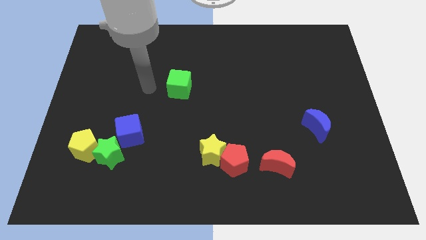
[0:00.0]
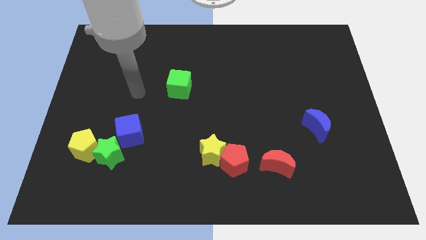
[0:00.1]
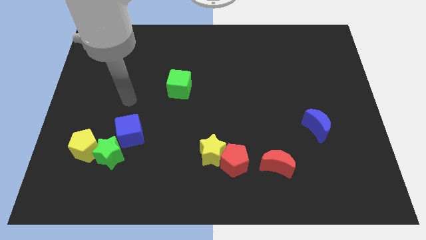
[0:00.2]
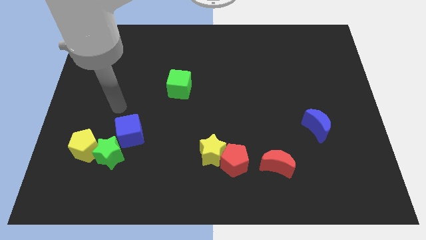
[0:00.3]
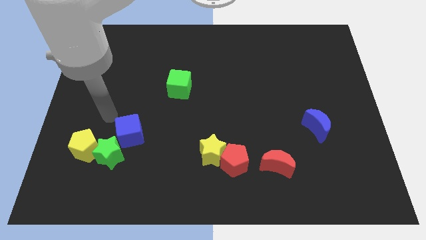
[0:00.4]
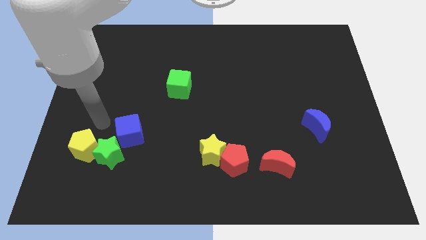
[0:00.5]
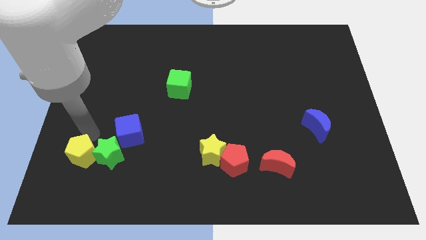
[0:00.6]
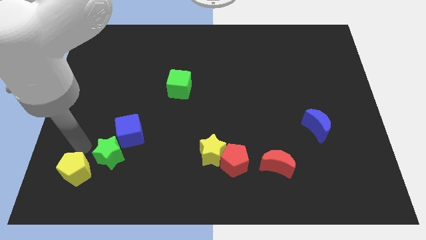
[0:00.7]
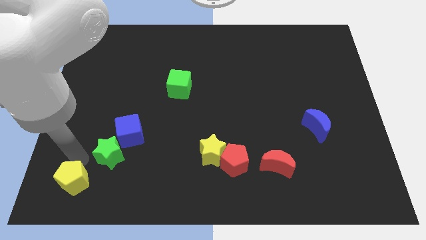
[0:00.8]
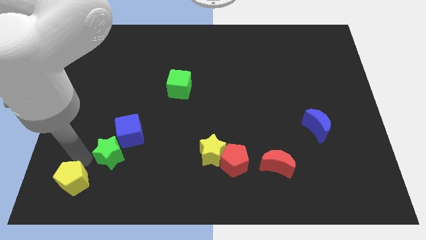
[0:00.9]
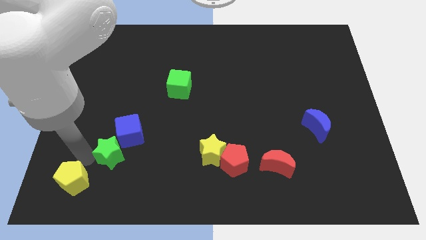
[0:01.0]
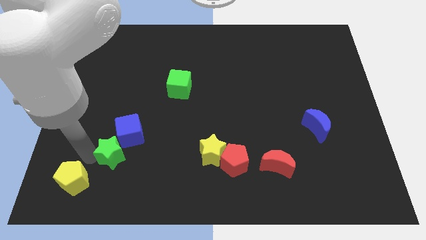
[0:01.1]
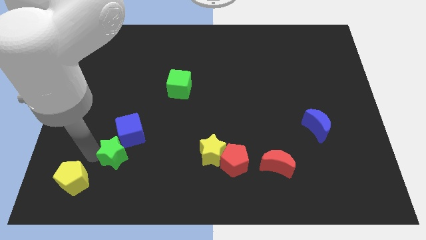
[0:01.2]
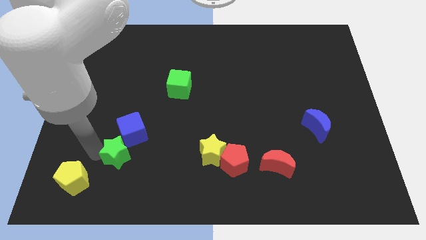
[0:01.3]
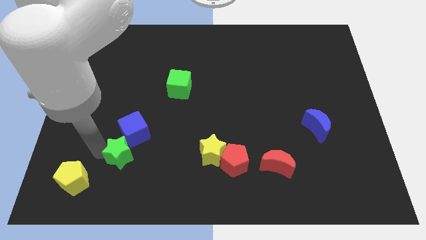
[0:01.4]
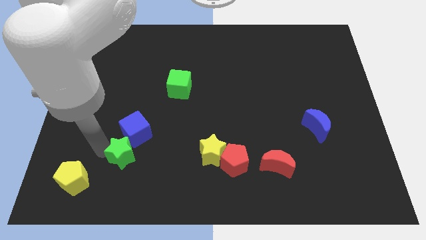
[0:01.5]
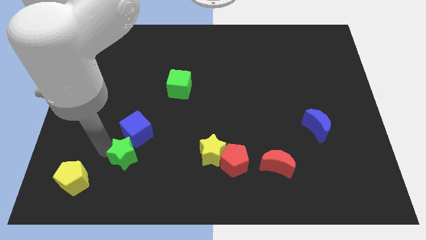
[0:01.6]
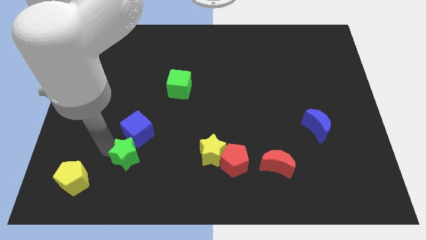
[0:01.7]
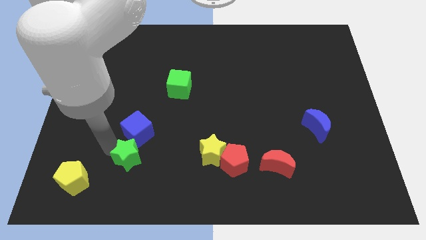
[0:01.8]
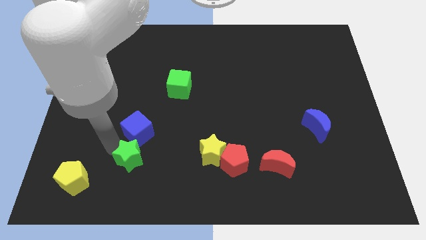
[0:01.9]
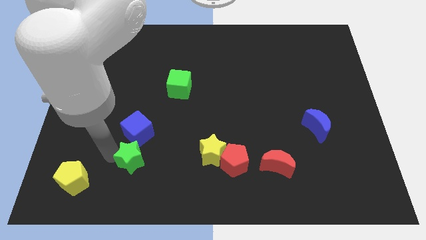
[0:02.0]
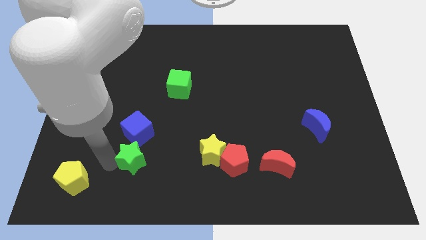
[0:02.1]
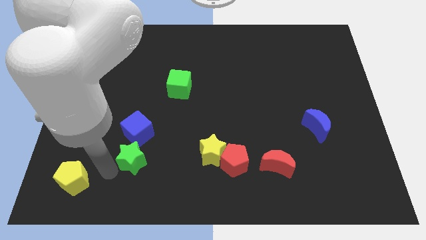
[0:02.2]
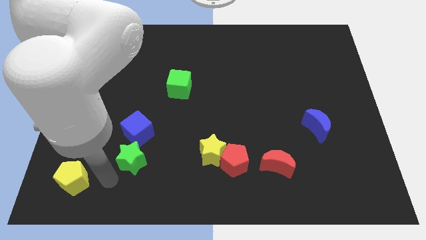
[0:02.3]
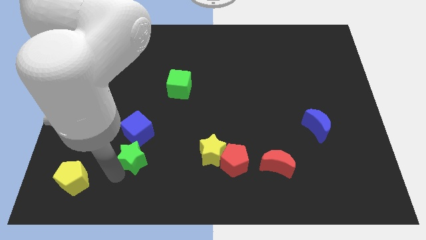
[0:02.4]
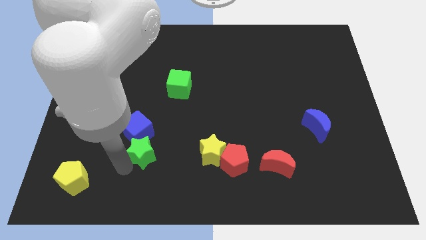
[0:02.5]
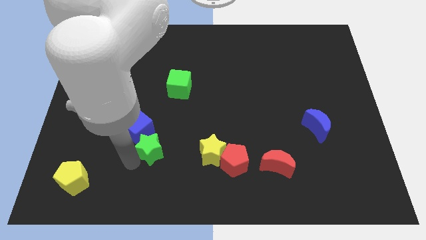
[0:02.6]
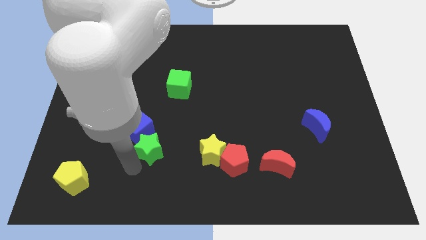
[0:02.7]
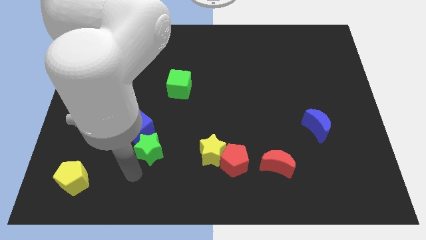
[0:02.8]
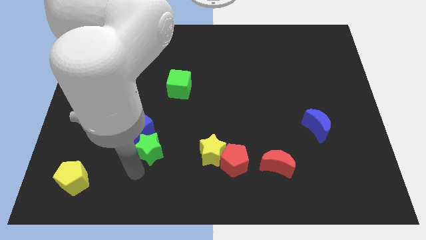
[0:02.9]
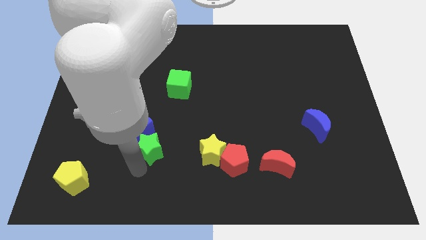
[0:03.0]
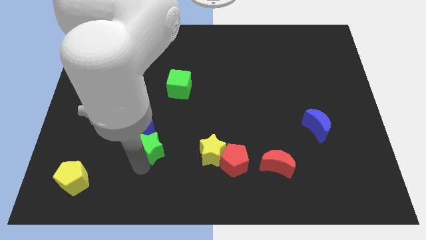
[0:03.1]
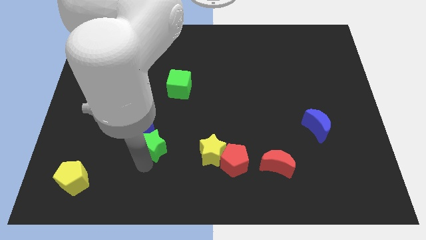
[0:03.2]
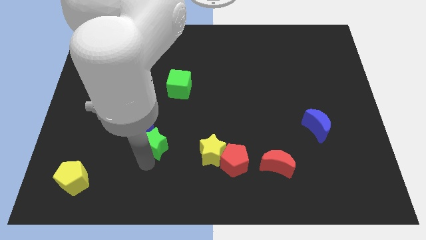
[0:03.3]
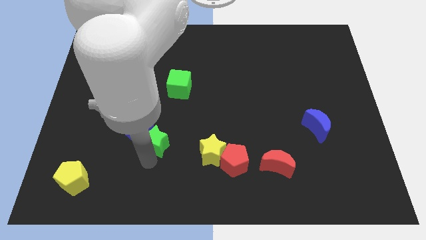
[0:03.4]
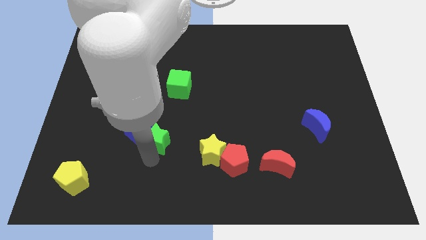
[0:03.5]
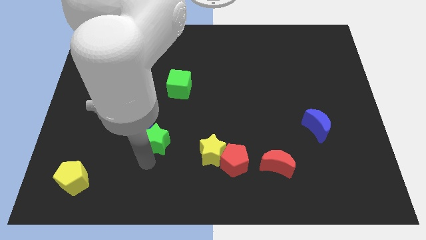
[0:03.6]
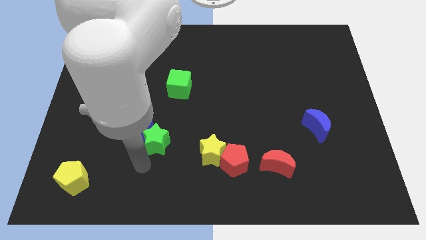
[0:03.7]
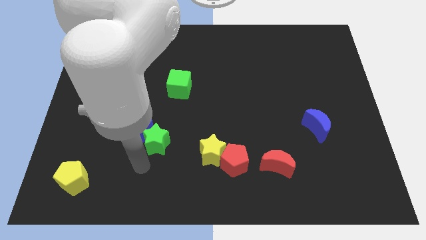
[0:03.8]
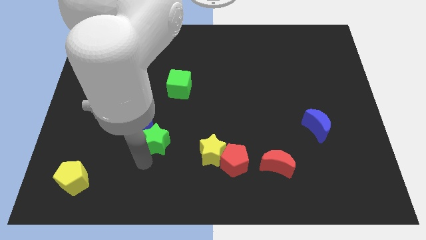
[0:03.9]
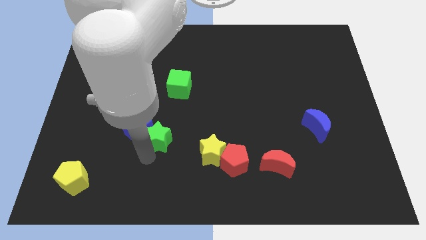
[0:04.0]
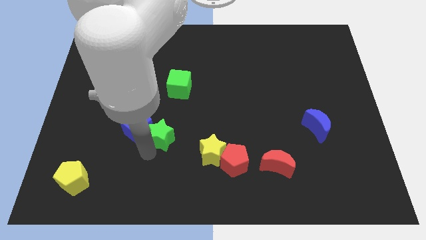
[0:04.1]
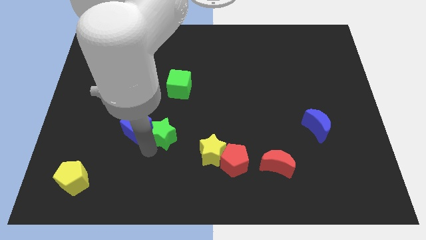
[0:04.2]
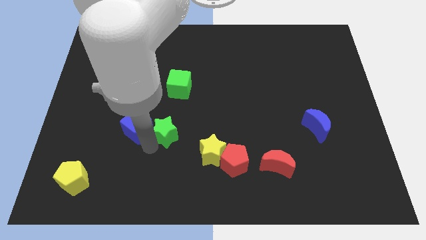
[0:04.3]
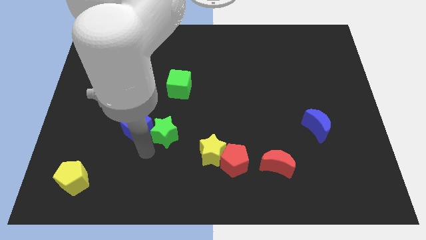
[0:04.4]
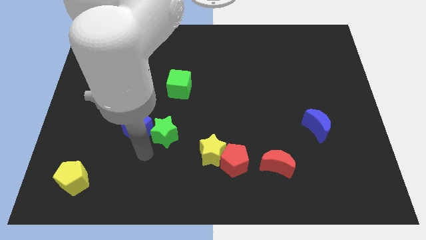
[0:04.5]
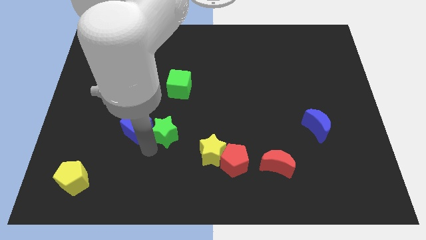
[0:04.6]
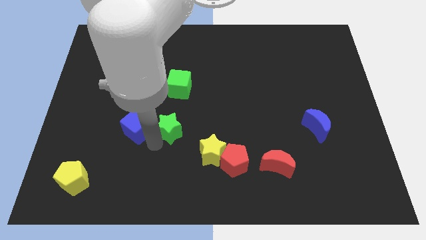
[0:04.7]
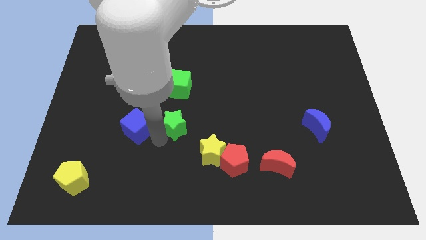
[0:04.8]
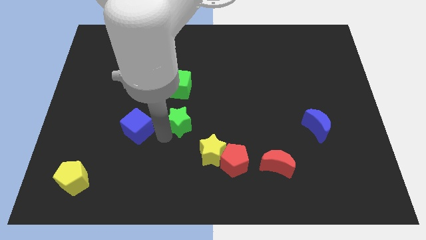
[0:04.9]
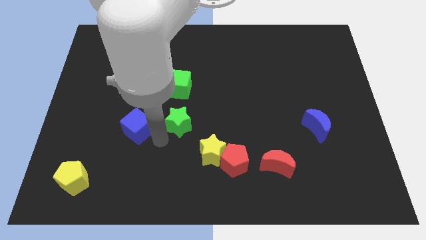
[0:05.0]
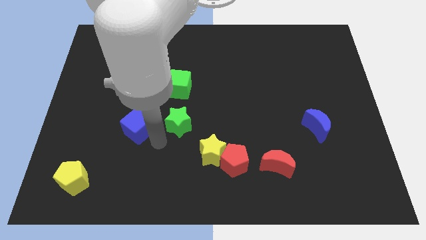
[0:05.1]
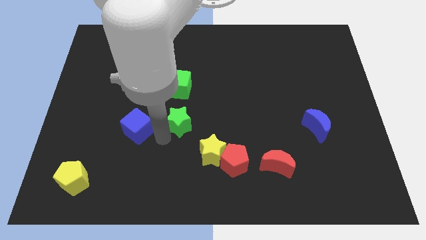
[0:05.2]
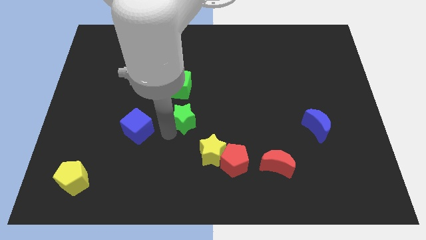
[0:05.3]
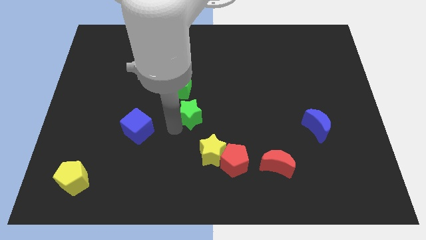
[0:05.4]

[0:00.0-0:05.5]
push the green star to the bottom right side of the green cube

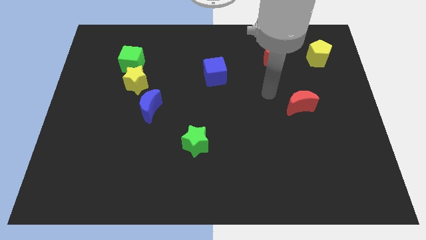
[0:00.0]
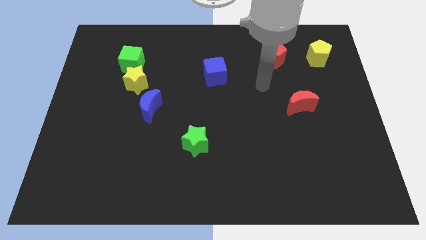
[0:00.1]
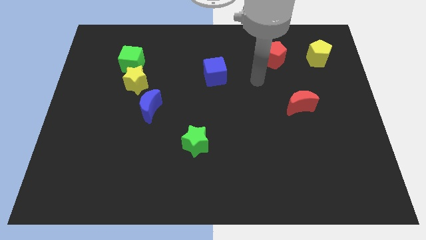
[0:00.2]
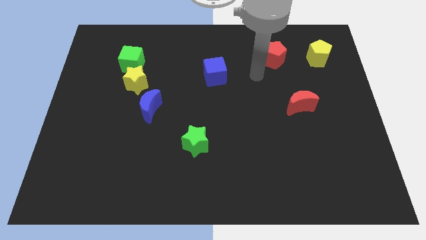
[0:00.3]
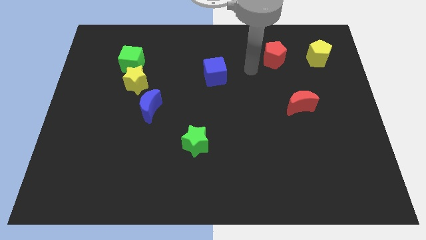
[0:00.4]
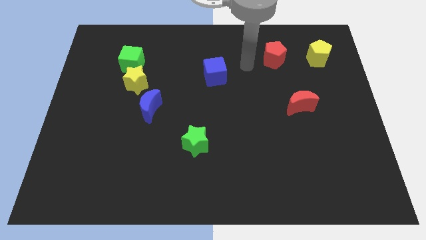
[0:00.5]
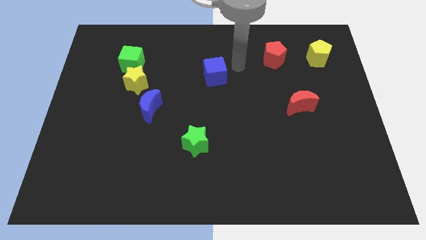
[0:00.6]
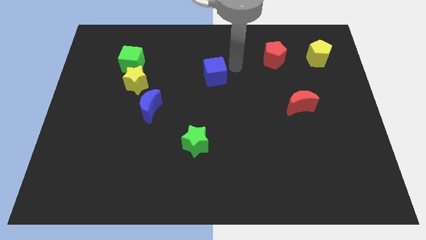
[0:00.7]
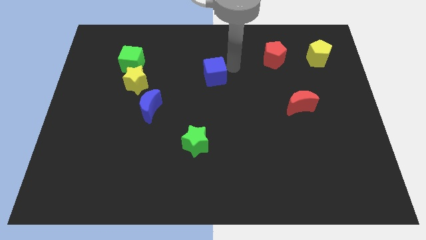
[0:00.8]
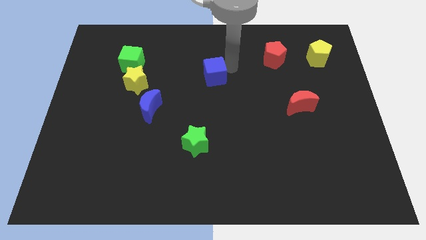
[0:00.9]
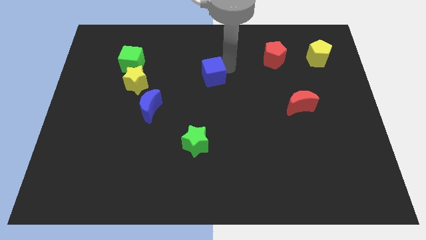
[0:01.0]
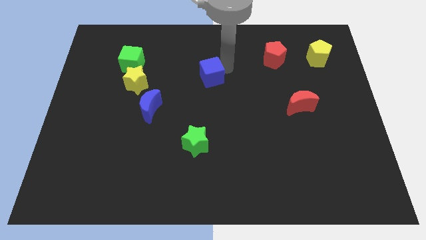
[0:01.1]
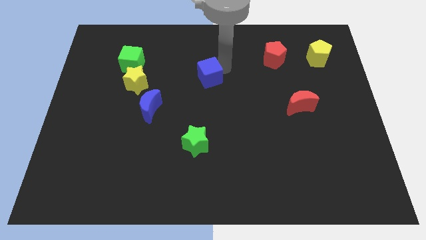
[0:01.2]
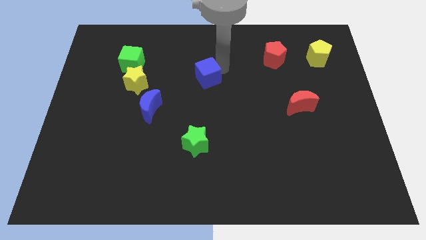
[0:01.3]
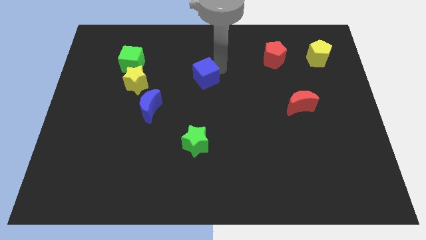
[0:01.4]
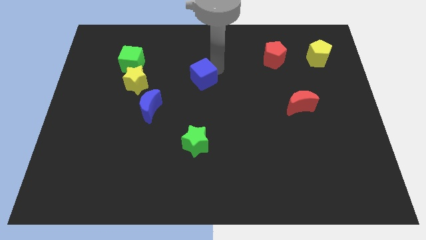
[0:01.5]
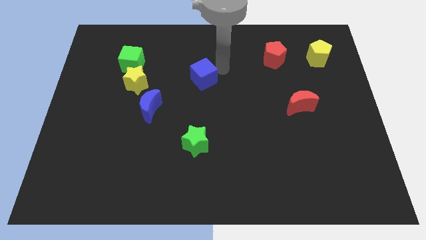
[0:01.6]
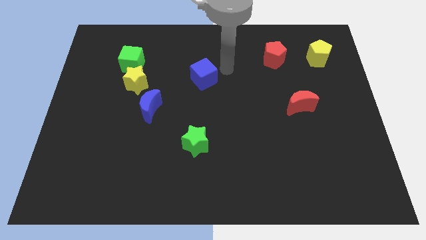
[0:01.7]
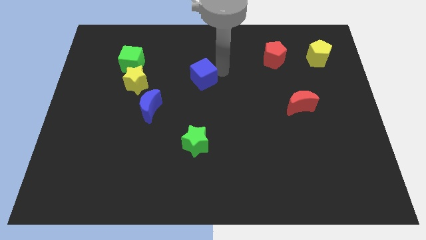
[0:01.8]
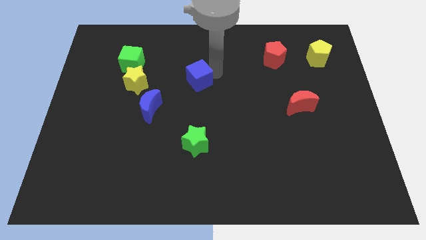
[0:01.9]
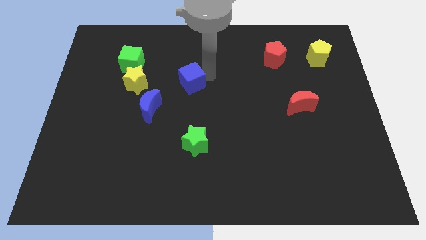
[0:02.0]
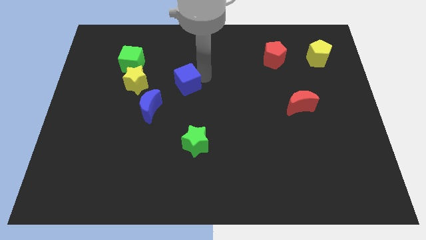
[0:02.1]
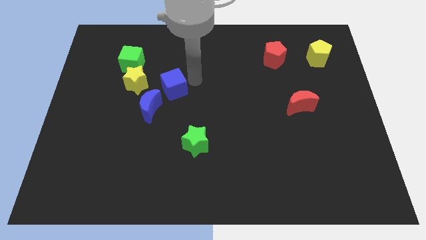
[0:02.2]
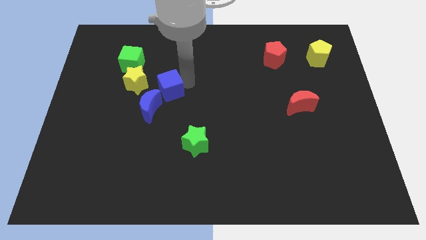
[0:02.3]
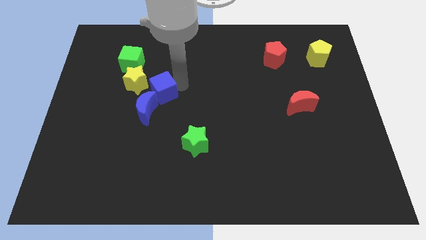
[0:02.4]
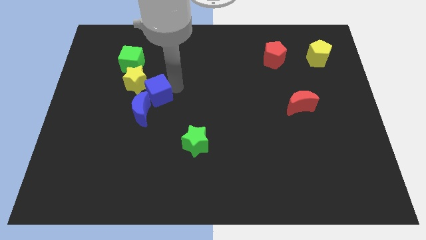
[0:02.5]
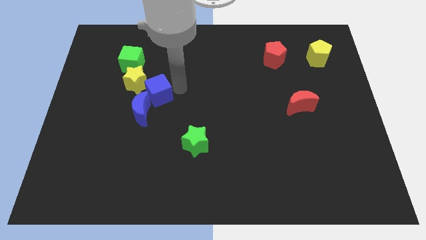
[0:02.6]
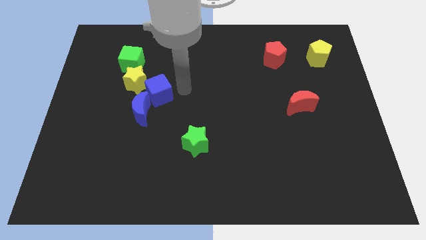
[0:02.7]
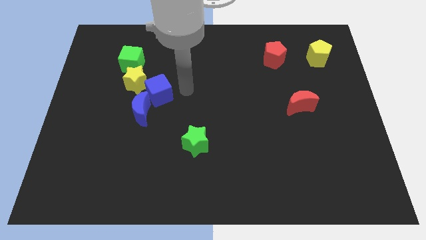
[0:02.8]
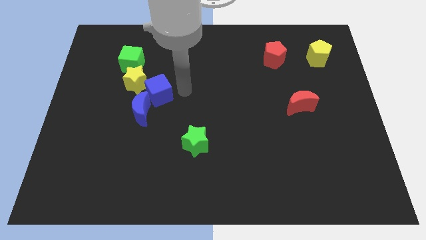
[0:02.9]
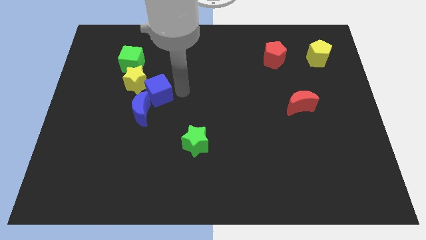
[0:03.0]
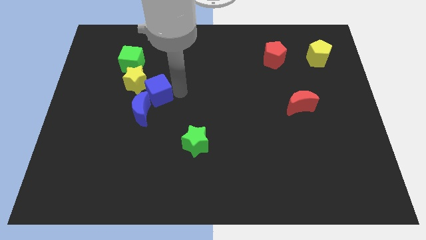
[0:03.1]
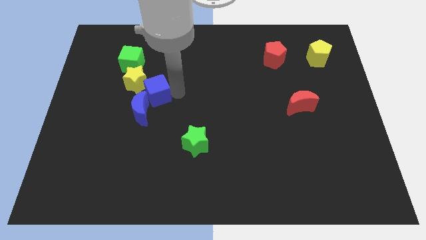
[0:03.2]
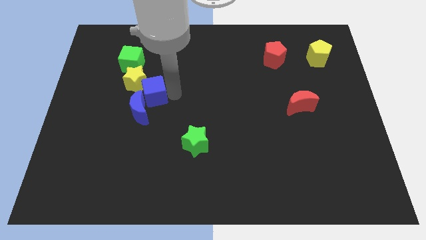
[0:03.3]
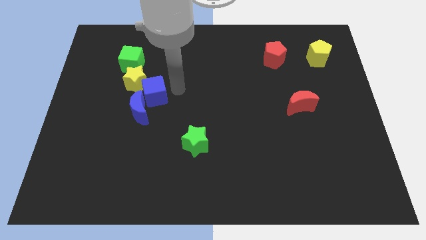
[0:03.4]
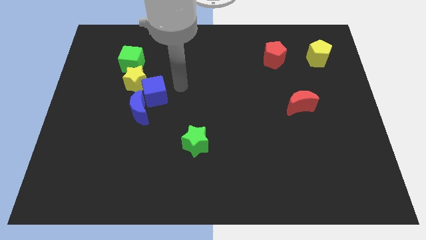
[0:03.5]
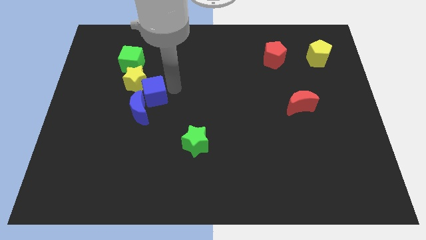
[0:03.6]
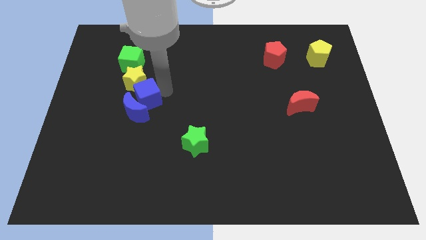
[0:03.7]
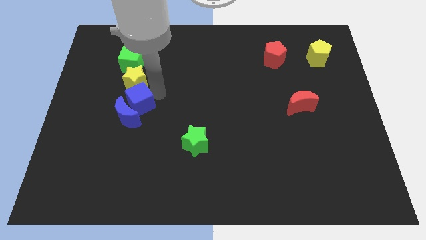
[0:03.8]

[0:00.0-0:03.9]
slide the blue cube to the bottom of the green cube
